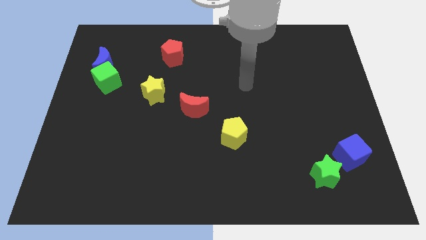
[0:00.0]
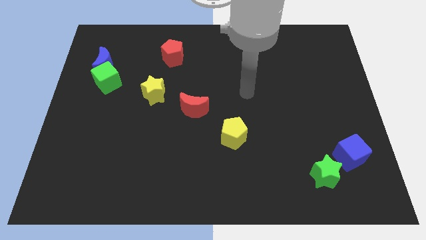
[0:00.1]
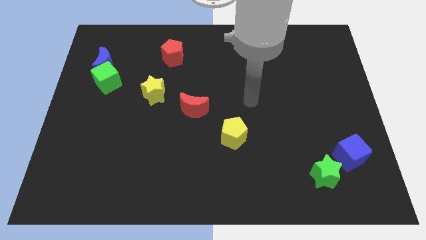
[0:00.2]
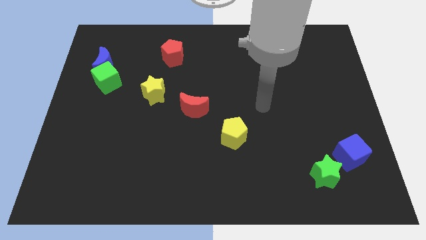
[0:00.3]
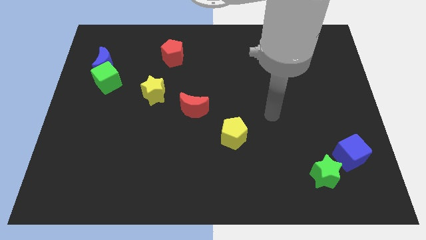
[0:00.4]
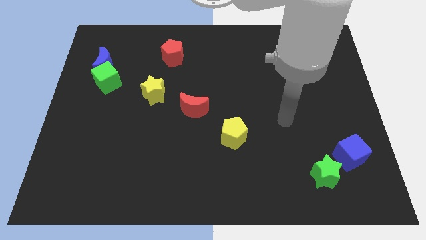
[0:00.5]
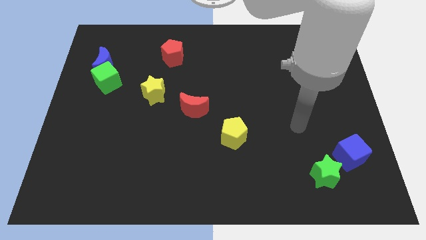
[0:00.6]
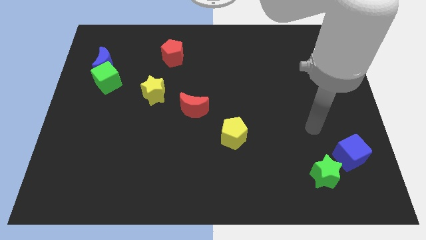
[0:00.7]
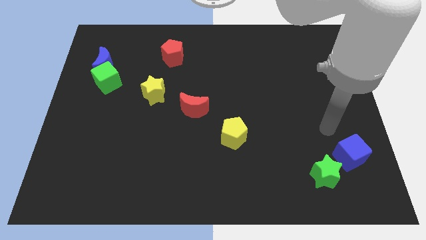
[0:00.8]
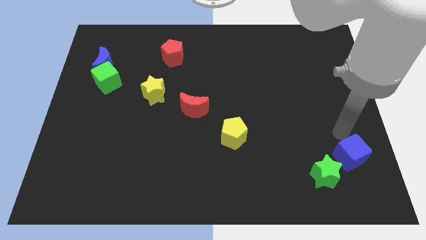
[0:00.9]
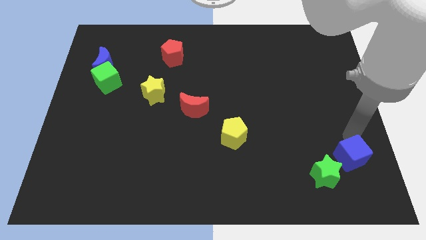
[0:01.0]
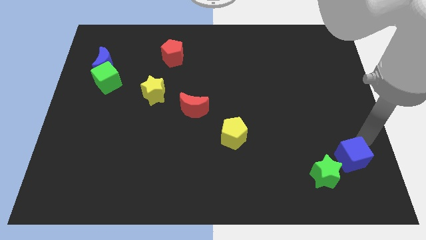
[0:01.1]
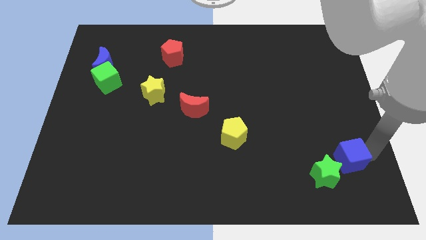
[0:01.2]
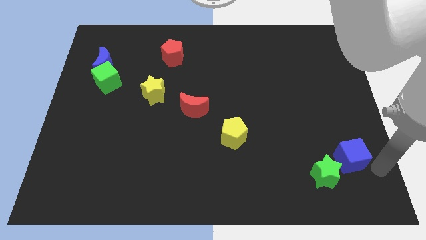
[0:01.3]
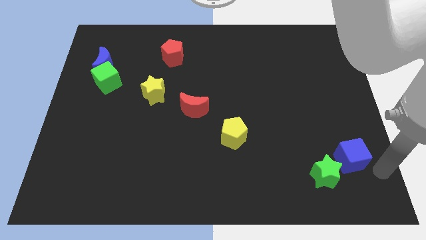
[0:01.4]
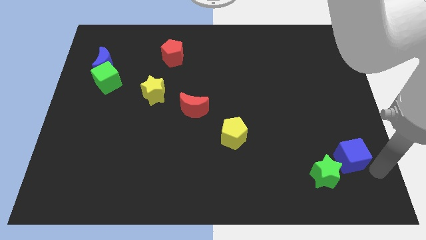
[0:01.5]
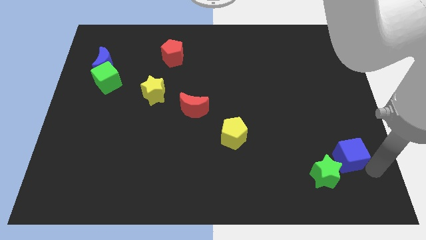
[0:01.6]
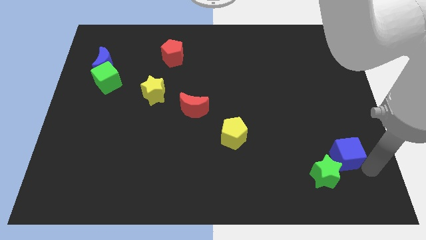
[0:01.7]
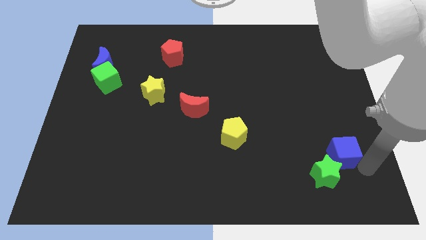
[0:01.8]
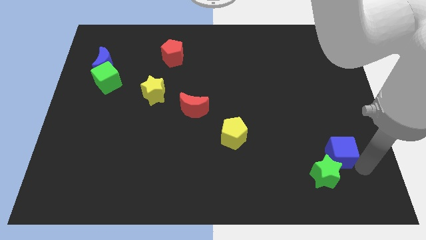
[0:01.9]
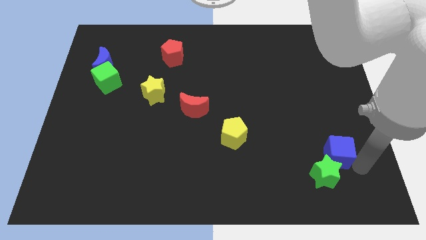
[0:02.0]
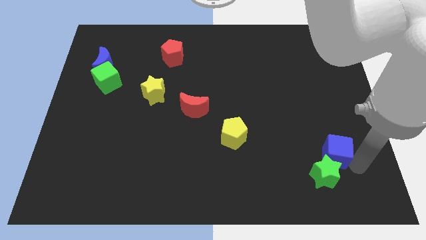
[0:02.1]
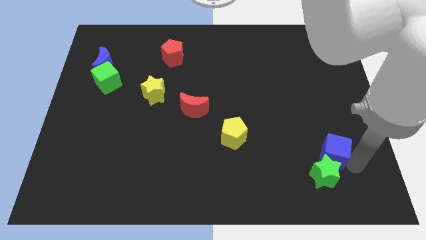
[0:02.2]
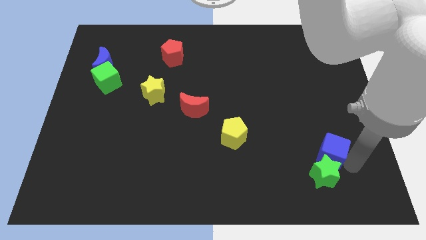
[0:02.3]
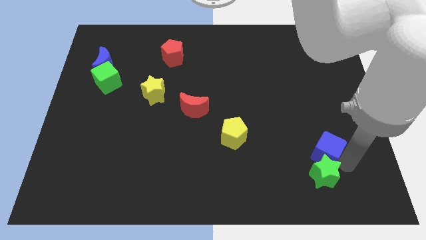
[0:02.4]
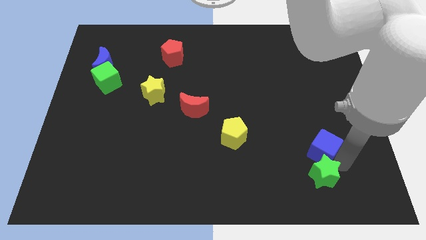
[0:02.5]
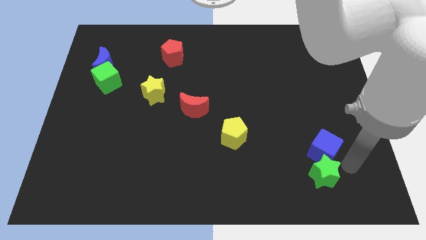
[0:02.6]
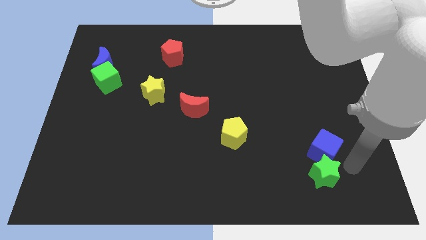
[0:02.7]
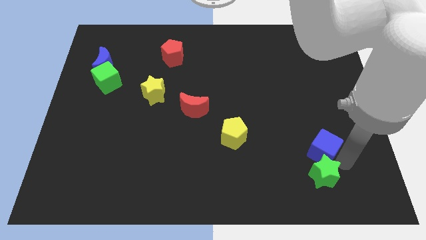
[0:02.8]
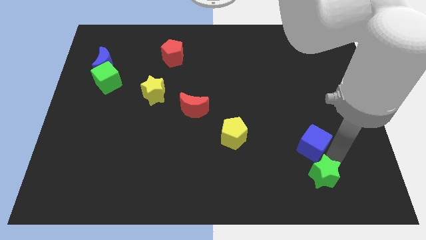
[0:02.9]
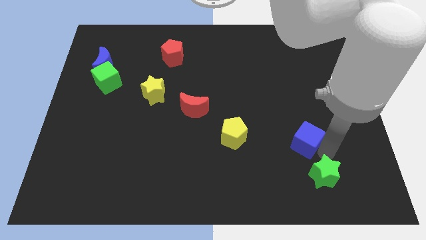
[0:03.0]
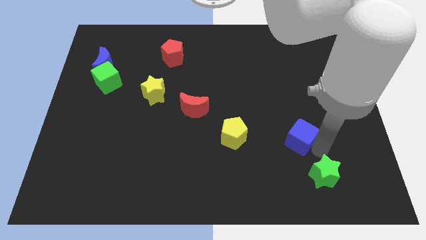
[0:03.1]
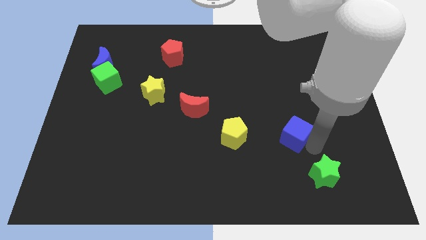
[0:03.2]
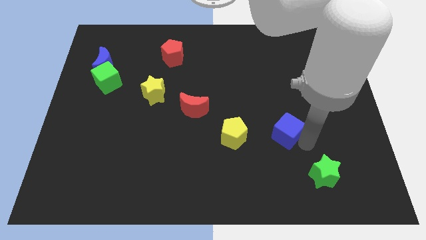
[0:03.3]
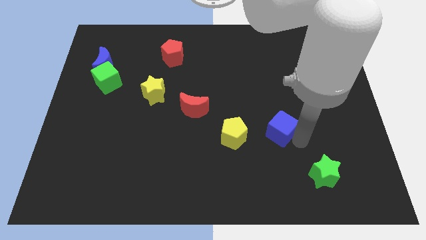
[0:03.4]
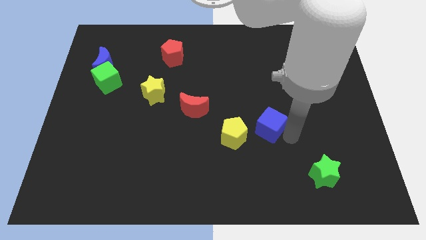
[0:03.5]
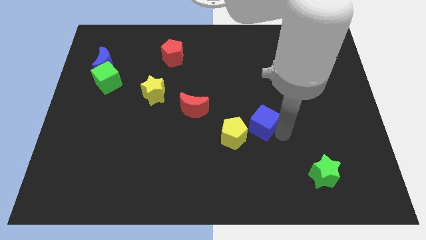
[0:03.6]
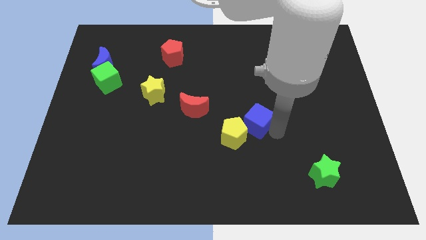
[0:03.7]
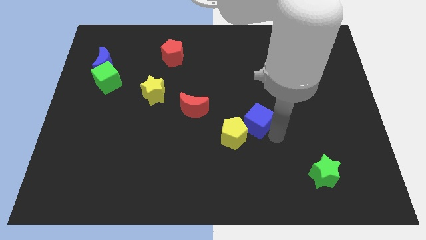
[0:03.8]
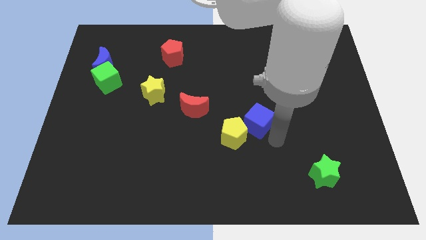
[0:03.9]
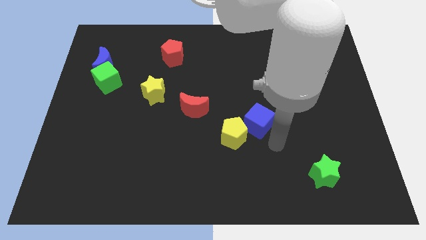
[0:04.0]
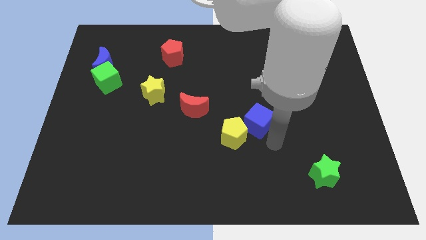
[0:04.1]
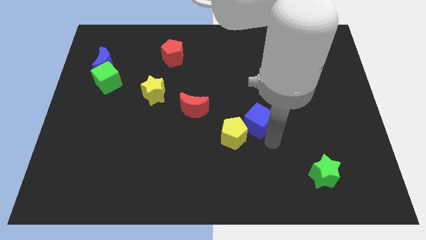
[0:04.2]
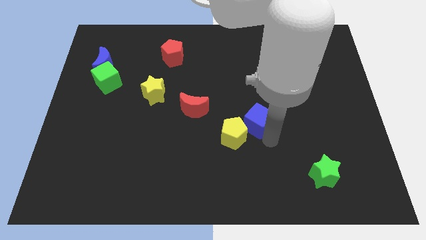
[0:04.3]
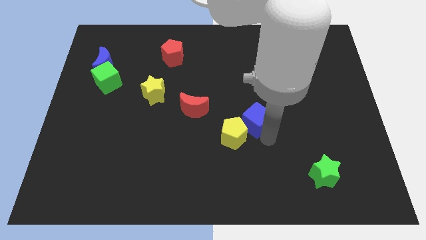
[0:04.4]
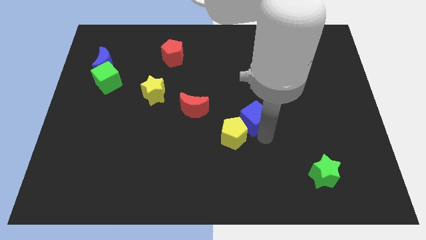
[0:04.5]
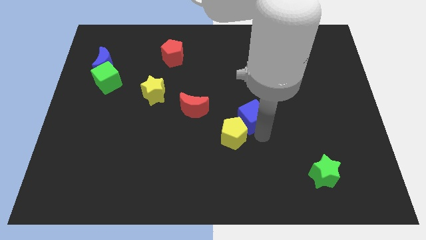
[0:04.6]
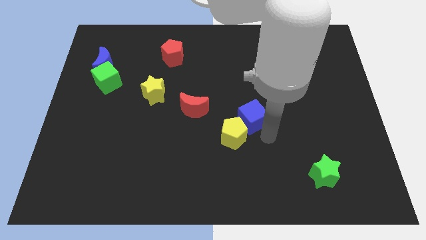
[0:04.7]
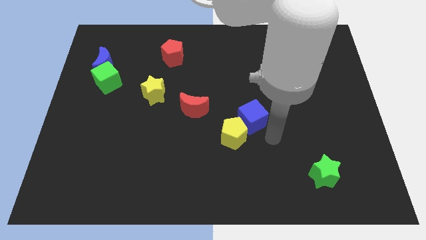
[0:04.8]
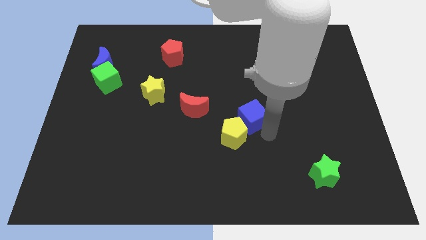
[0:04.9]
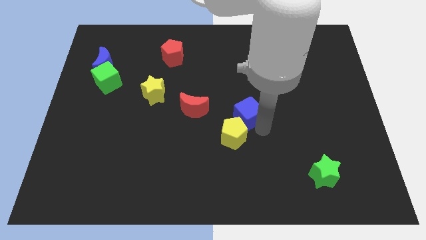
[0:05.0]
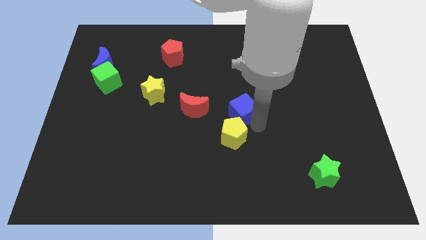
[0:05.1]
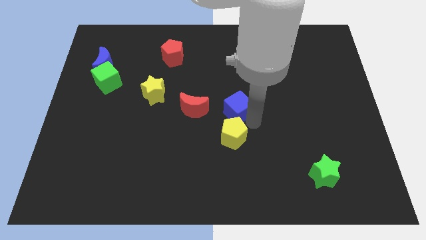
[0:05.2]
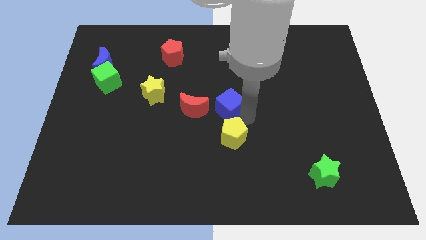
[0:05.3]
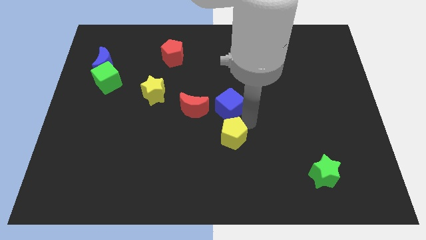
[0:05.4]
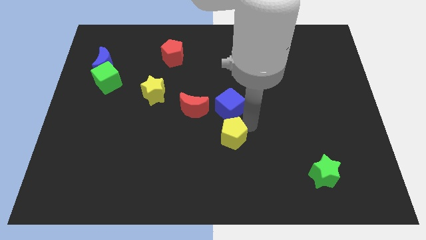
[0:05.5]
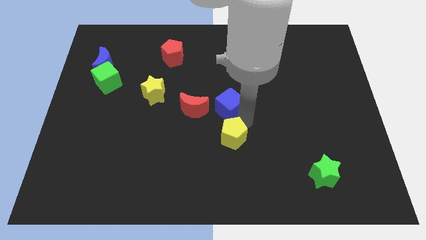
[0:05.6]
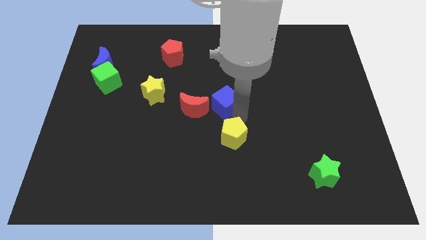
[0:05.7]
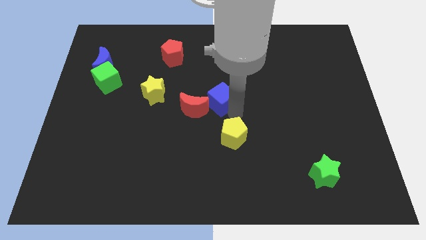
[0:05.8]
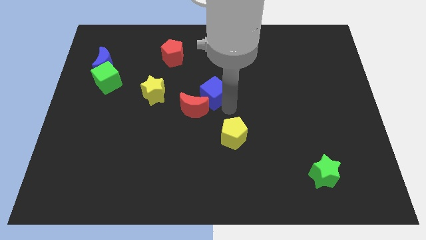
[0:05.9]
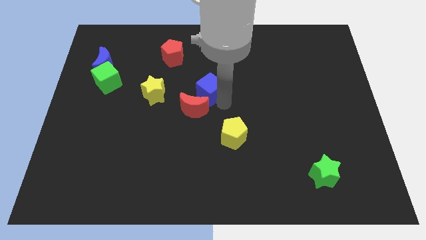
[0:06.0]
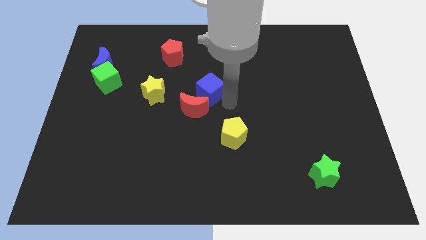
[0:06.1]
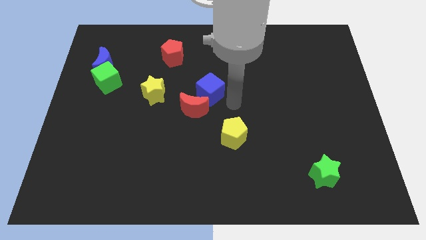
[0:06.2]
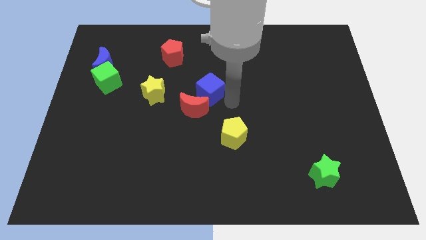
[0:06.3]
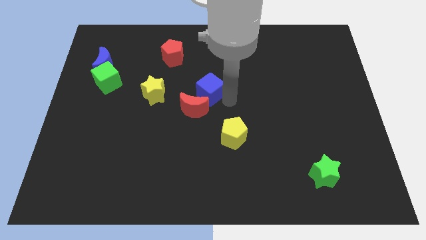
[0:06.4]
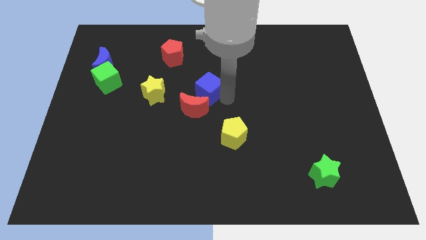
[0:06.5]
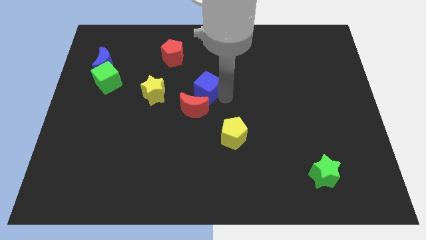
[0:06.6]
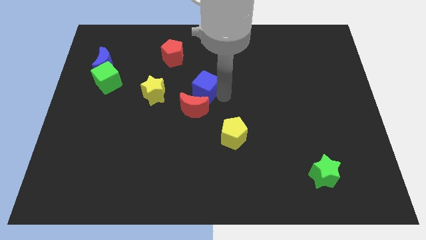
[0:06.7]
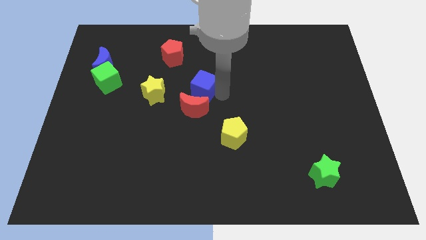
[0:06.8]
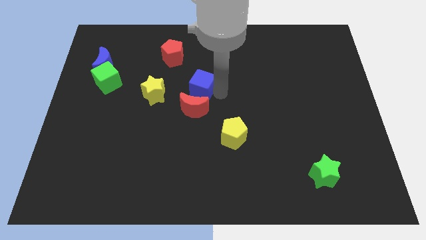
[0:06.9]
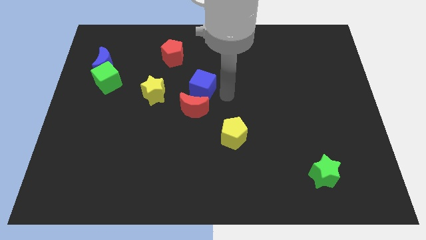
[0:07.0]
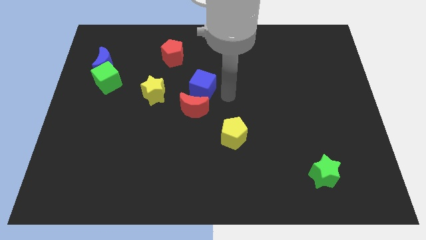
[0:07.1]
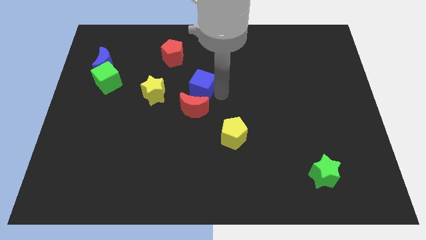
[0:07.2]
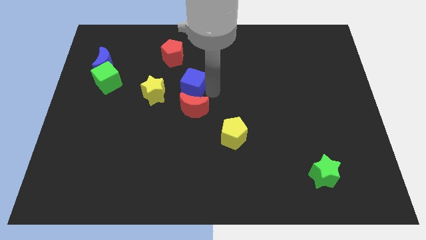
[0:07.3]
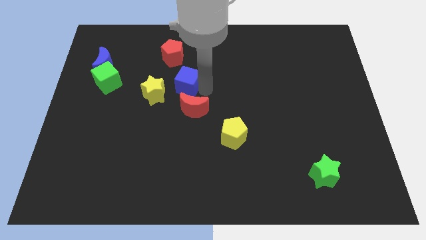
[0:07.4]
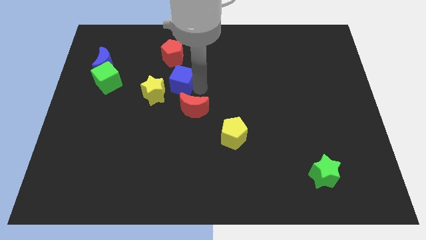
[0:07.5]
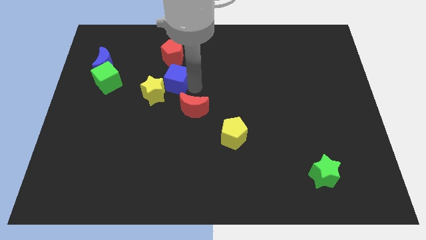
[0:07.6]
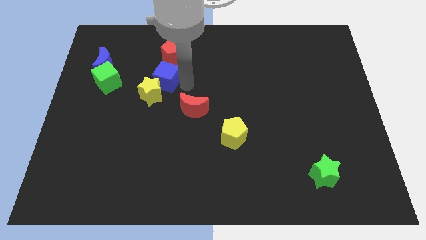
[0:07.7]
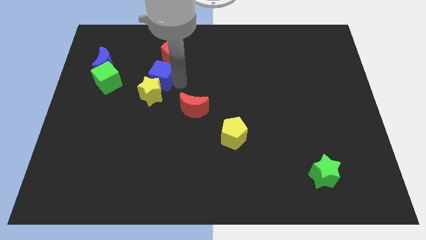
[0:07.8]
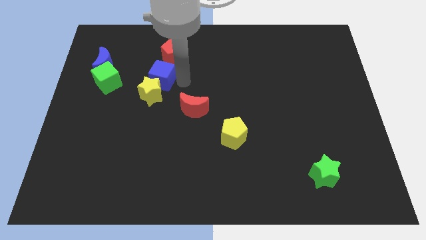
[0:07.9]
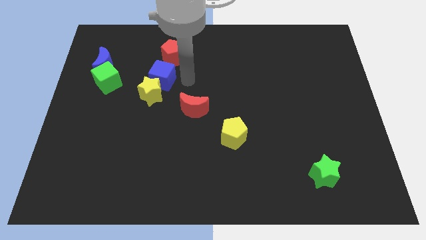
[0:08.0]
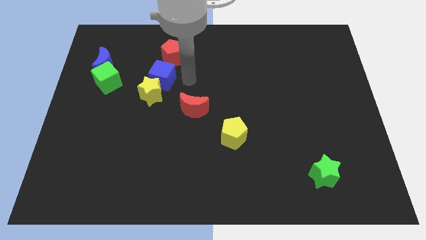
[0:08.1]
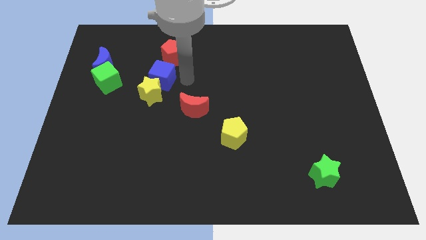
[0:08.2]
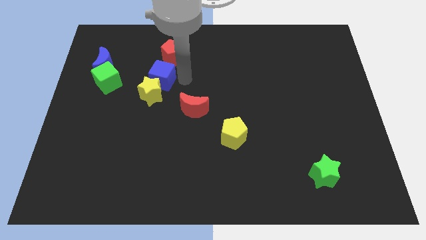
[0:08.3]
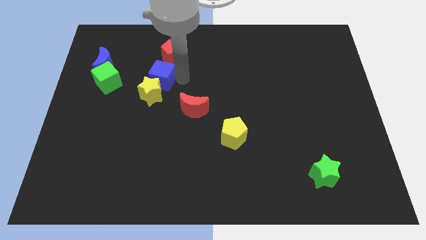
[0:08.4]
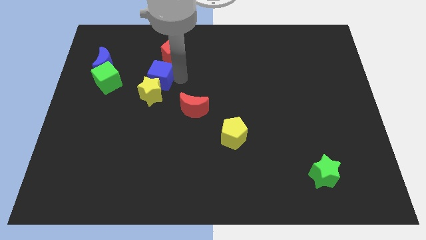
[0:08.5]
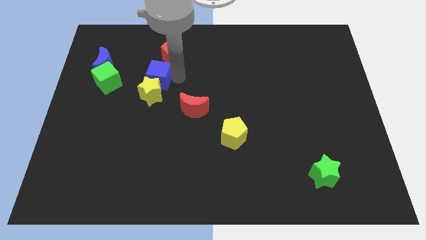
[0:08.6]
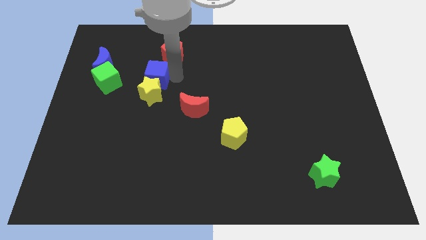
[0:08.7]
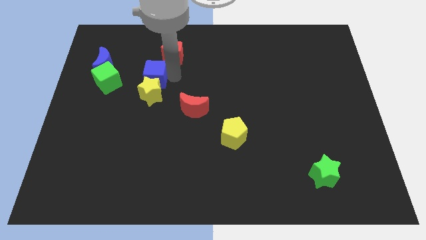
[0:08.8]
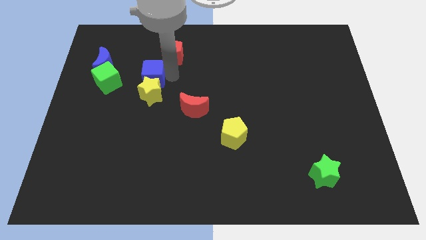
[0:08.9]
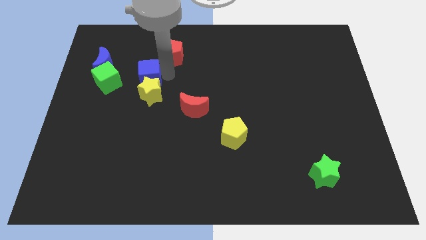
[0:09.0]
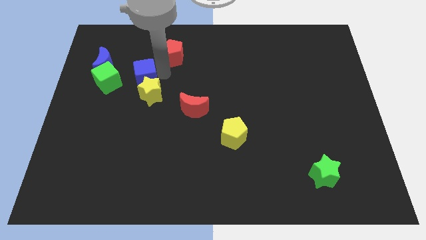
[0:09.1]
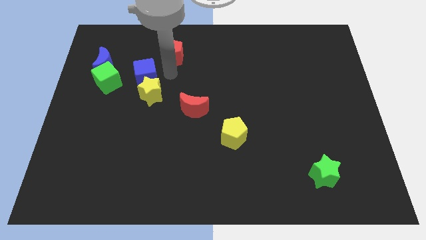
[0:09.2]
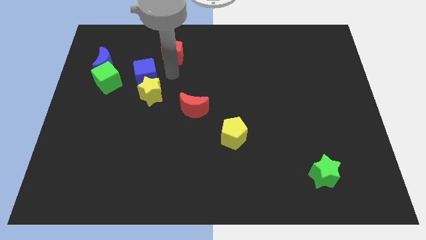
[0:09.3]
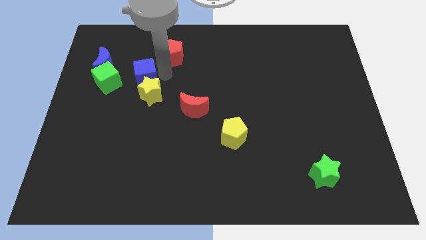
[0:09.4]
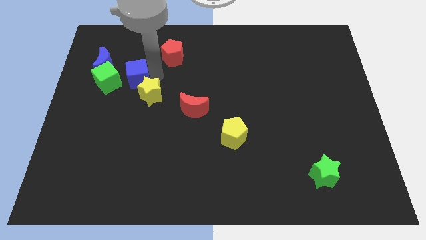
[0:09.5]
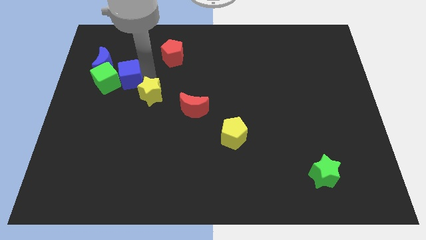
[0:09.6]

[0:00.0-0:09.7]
slide the blue cube next to the green cube
